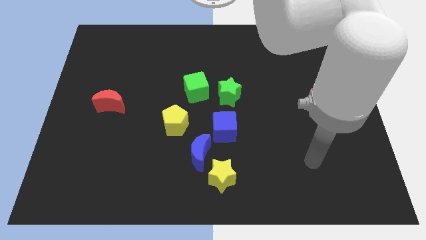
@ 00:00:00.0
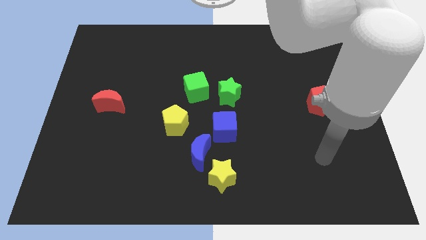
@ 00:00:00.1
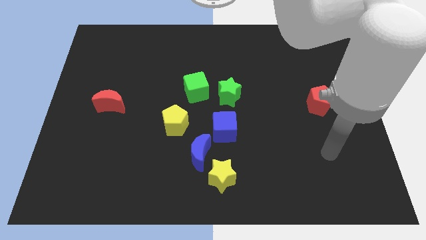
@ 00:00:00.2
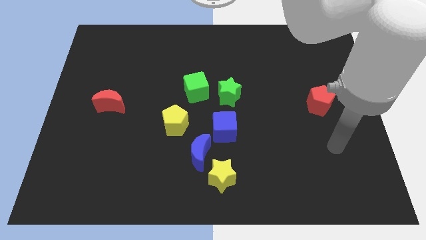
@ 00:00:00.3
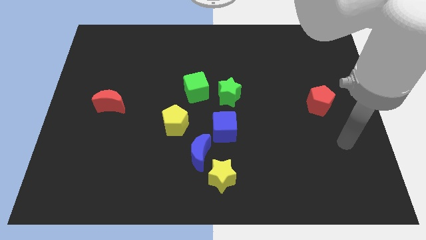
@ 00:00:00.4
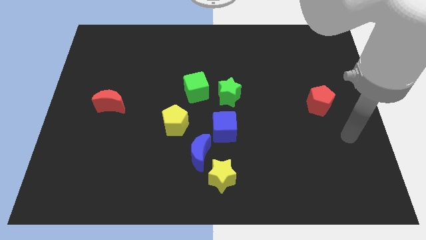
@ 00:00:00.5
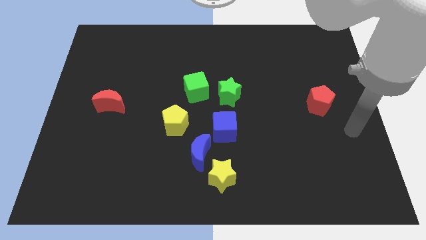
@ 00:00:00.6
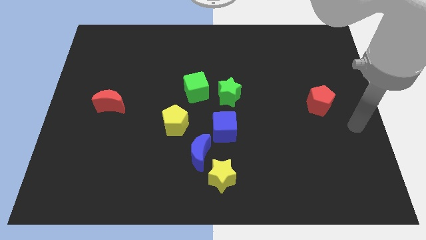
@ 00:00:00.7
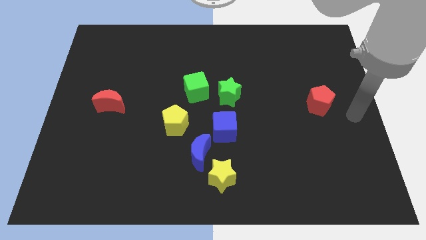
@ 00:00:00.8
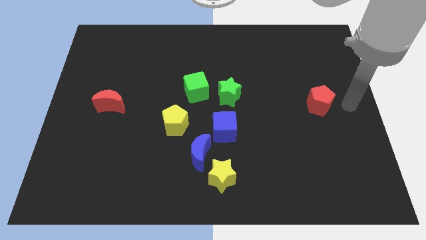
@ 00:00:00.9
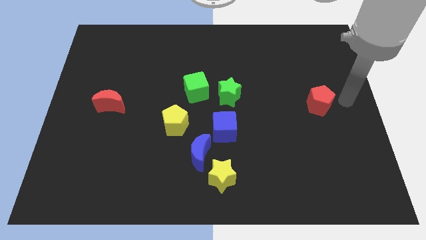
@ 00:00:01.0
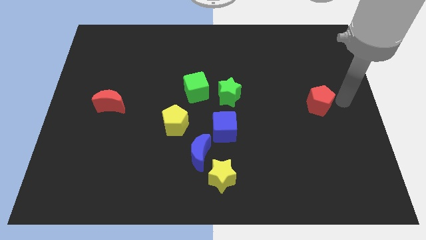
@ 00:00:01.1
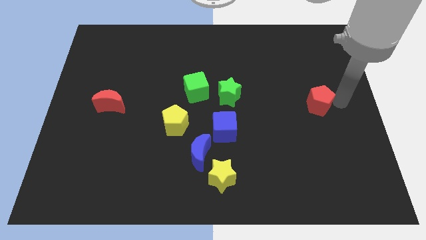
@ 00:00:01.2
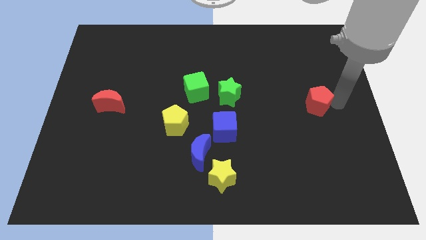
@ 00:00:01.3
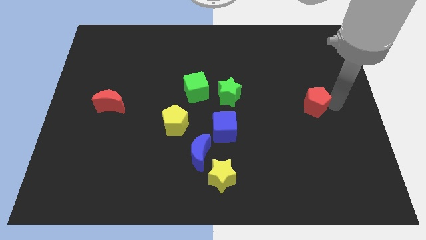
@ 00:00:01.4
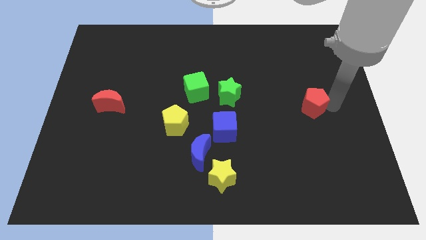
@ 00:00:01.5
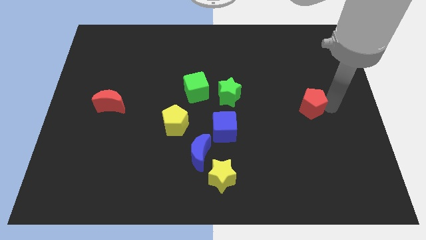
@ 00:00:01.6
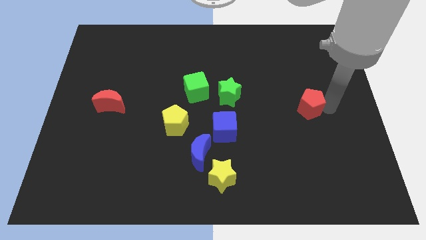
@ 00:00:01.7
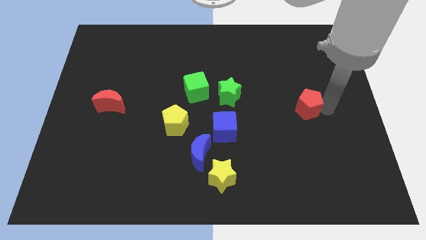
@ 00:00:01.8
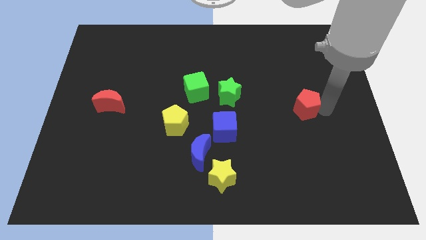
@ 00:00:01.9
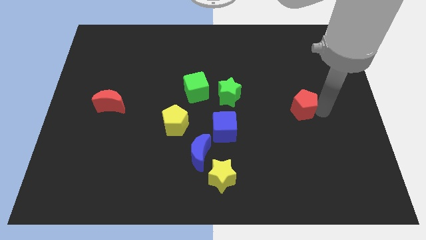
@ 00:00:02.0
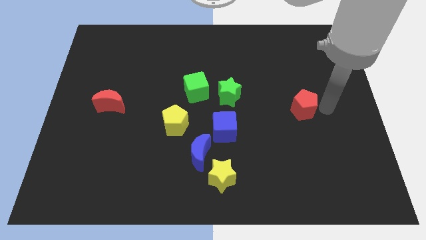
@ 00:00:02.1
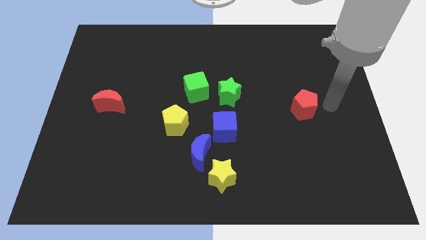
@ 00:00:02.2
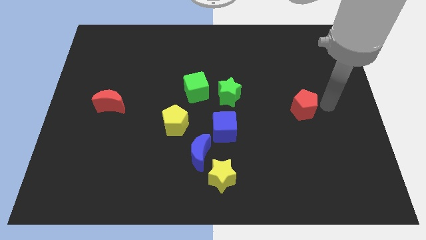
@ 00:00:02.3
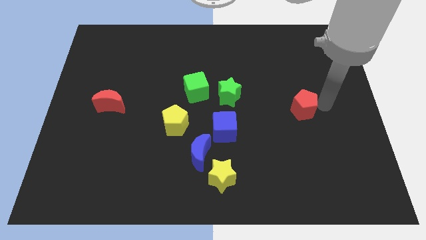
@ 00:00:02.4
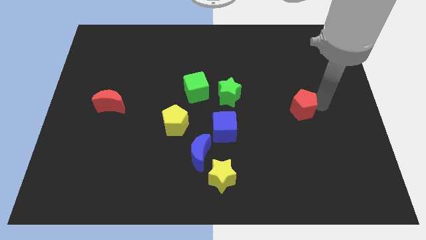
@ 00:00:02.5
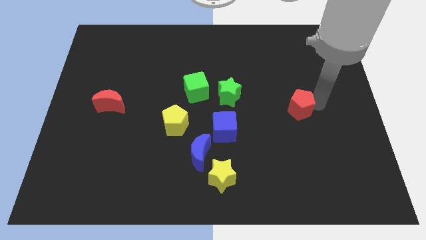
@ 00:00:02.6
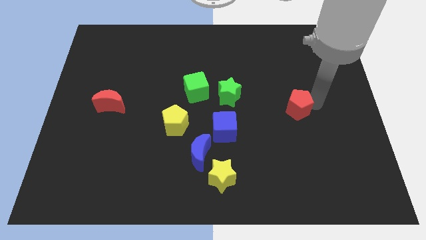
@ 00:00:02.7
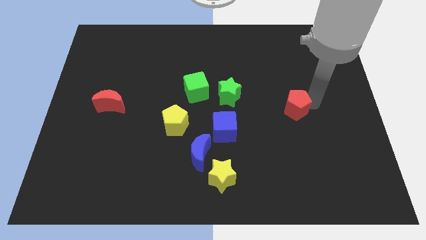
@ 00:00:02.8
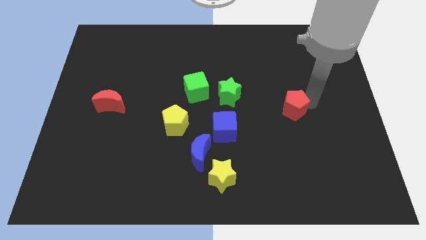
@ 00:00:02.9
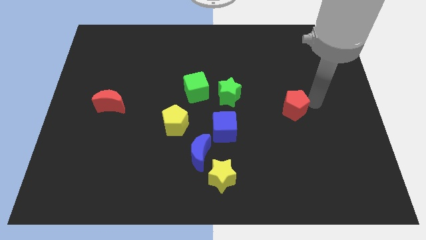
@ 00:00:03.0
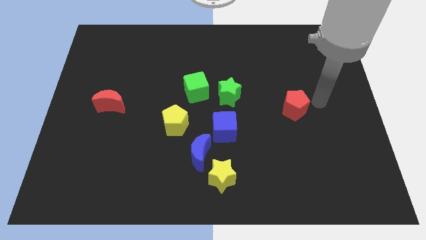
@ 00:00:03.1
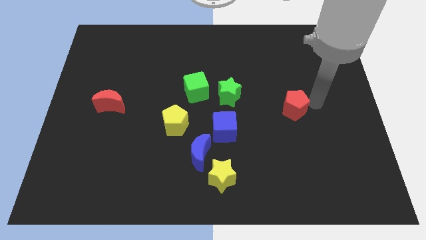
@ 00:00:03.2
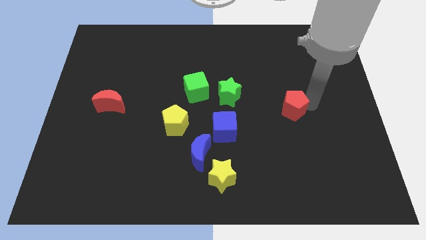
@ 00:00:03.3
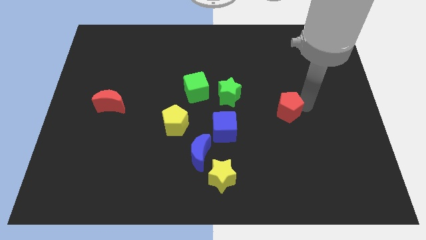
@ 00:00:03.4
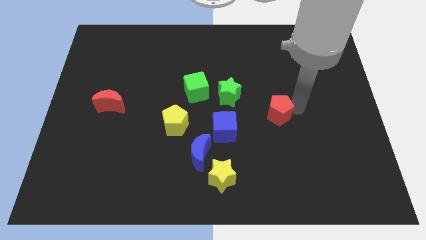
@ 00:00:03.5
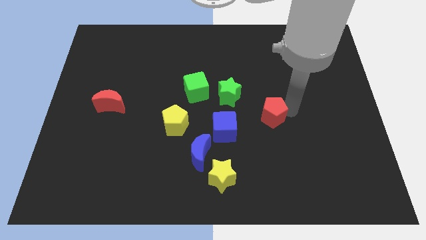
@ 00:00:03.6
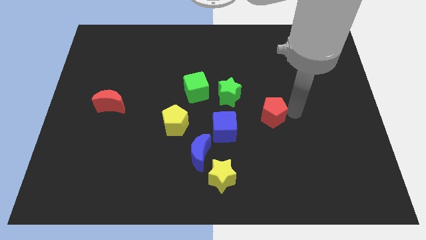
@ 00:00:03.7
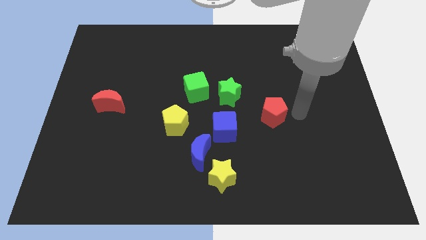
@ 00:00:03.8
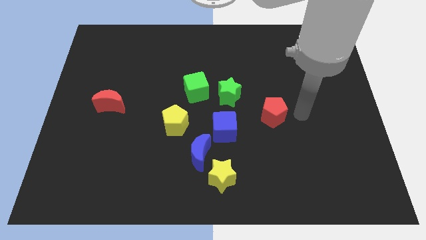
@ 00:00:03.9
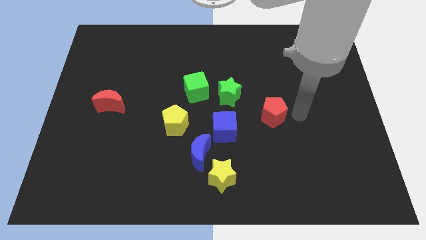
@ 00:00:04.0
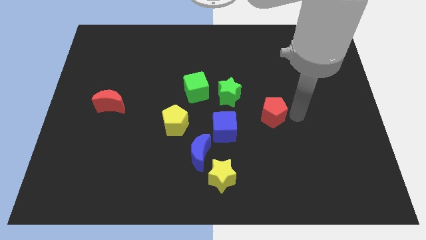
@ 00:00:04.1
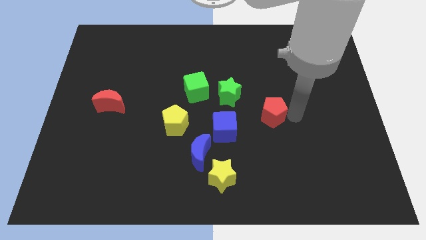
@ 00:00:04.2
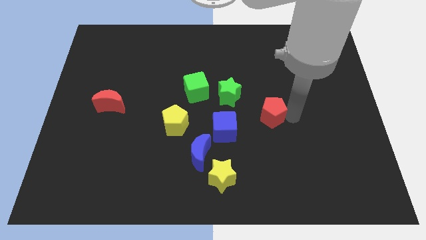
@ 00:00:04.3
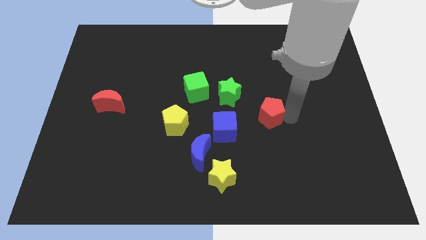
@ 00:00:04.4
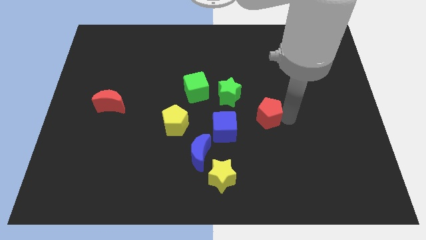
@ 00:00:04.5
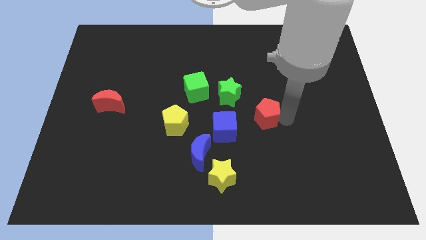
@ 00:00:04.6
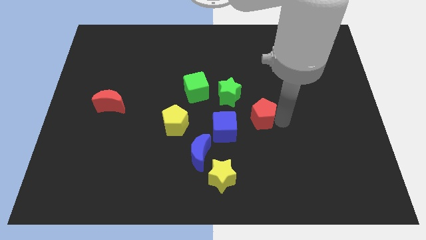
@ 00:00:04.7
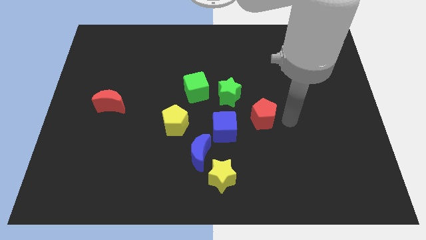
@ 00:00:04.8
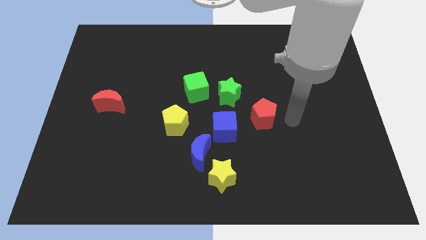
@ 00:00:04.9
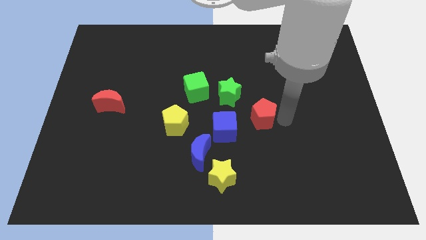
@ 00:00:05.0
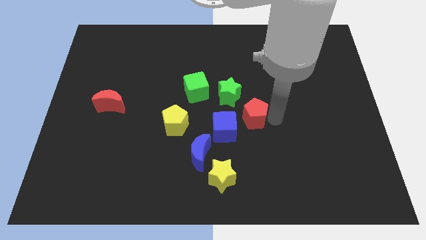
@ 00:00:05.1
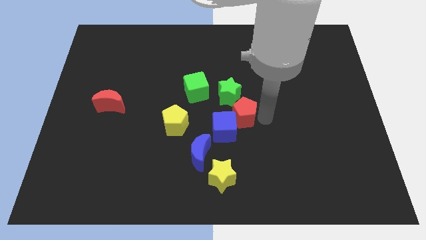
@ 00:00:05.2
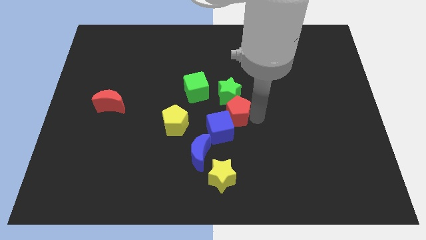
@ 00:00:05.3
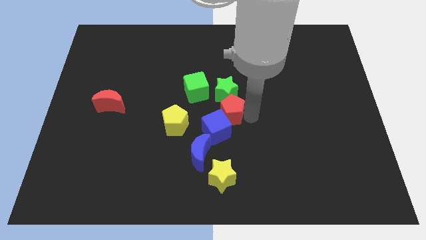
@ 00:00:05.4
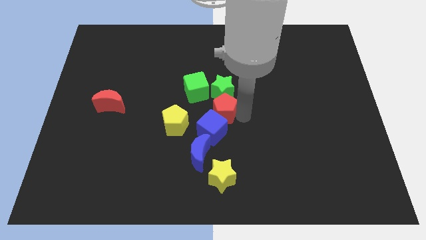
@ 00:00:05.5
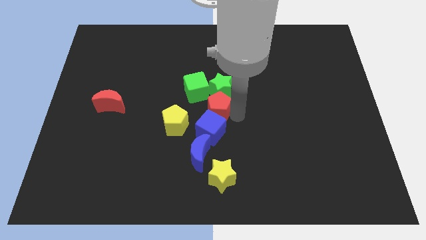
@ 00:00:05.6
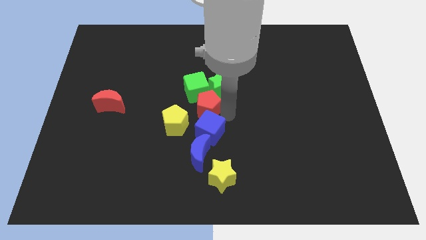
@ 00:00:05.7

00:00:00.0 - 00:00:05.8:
move the red pentagon close to the green cube

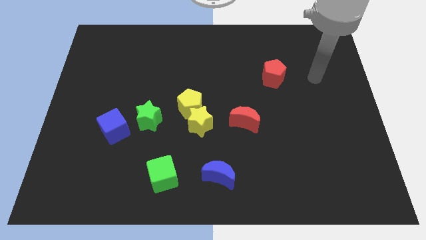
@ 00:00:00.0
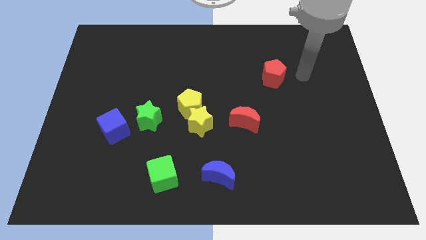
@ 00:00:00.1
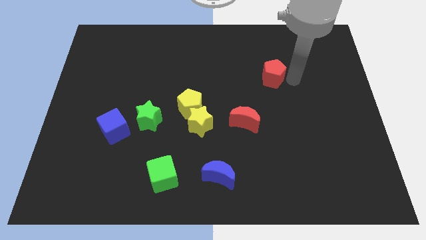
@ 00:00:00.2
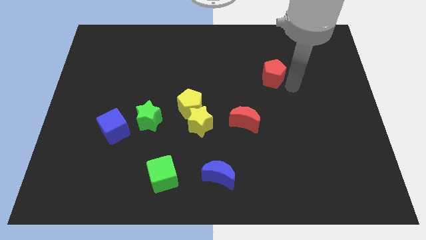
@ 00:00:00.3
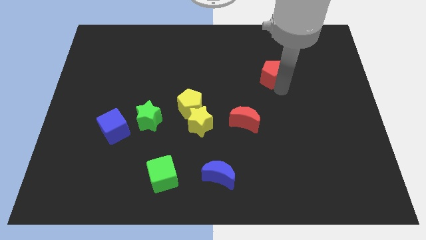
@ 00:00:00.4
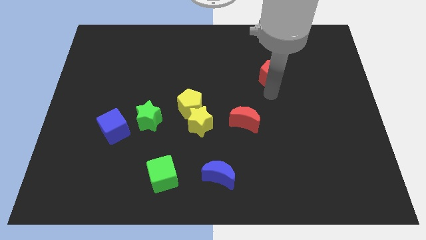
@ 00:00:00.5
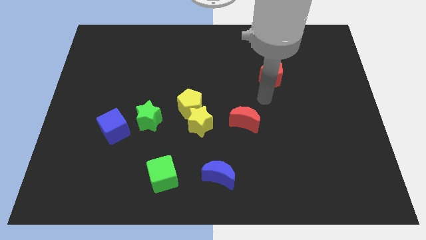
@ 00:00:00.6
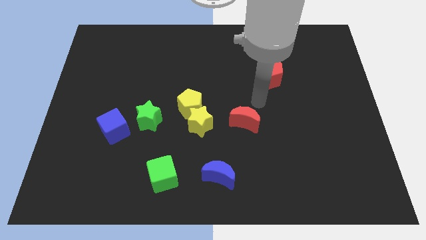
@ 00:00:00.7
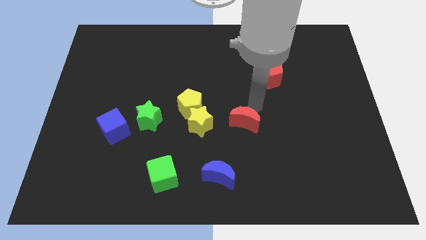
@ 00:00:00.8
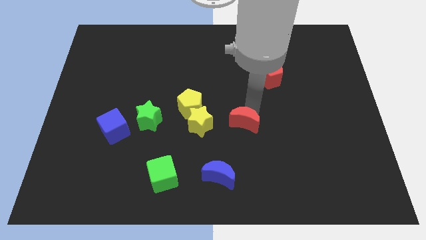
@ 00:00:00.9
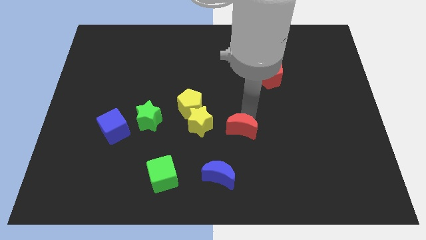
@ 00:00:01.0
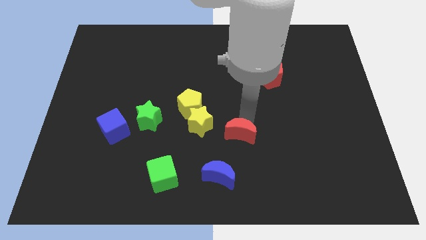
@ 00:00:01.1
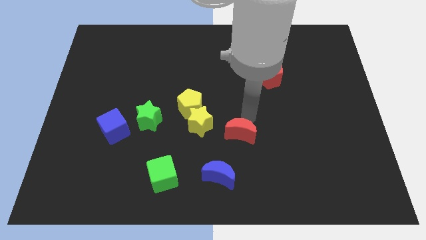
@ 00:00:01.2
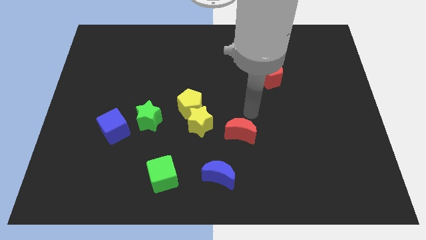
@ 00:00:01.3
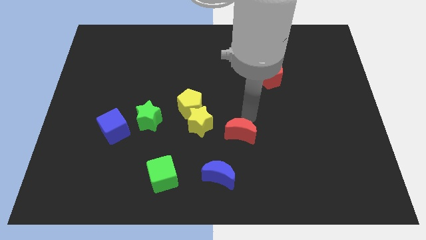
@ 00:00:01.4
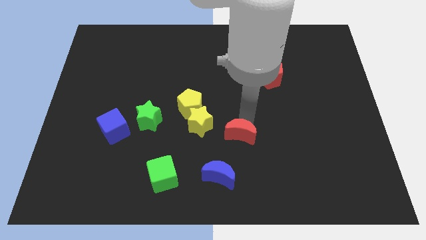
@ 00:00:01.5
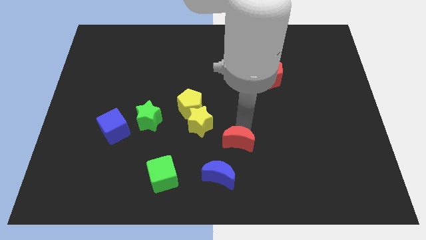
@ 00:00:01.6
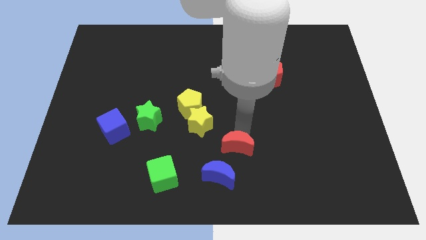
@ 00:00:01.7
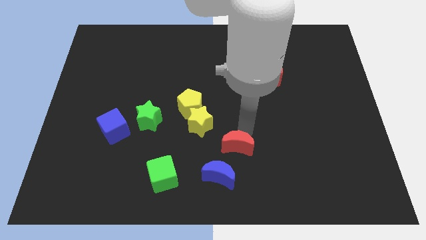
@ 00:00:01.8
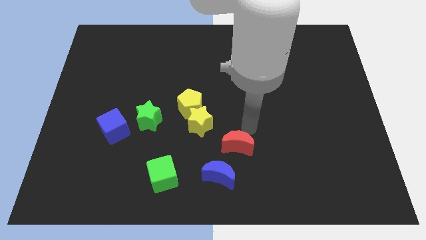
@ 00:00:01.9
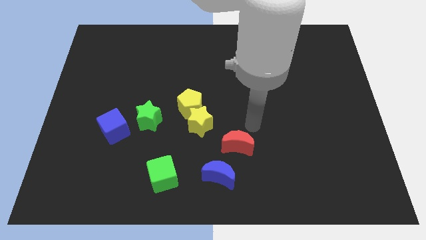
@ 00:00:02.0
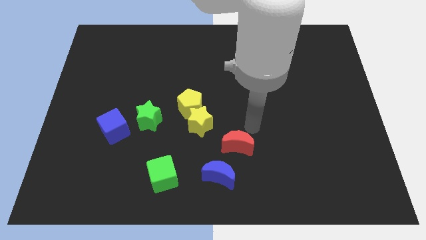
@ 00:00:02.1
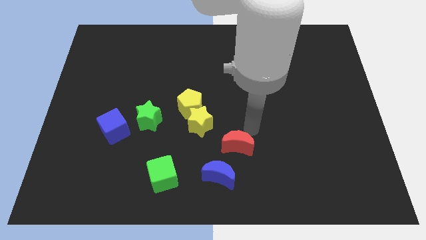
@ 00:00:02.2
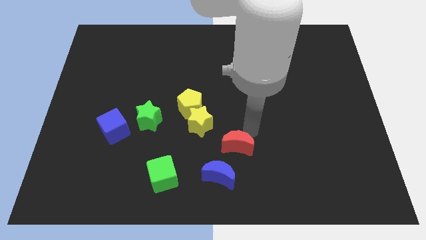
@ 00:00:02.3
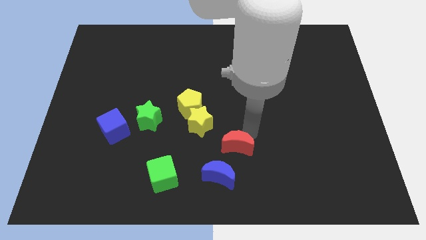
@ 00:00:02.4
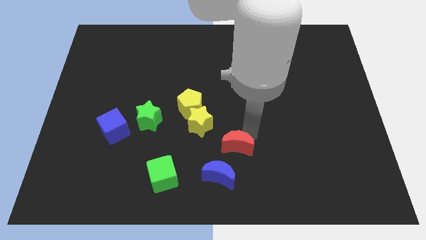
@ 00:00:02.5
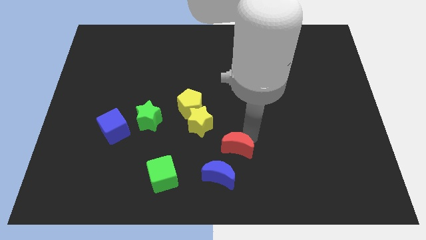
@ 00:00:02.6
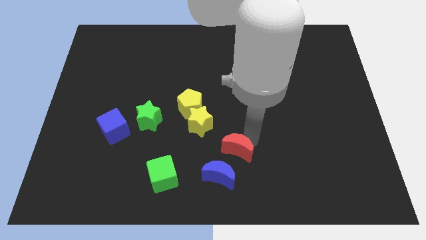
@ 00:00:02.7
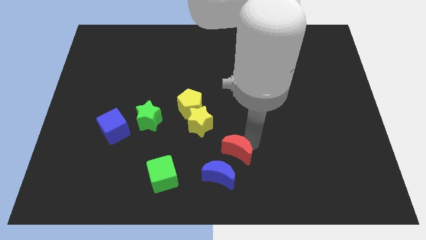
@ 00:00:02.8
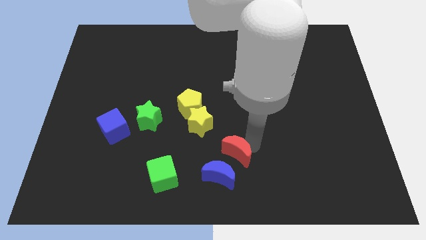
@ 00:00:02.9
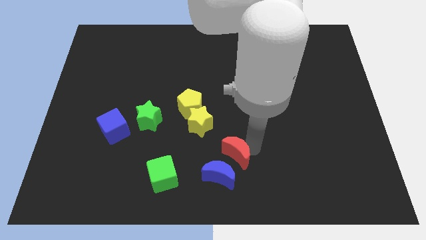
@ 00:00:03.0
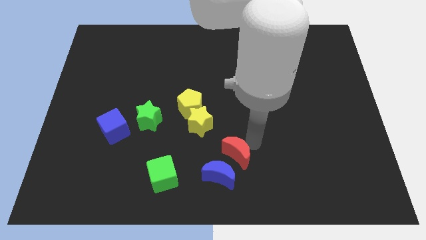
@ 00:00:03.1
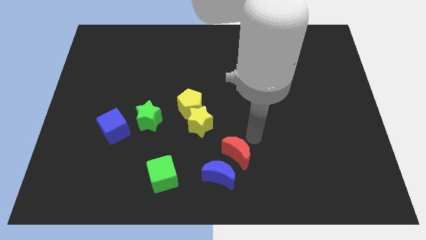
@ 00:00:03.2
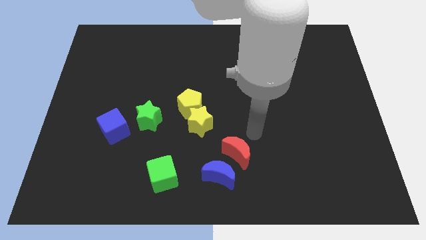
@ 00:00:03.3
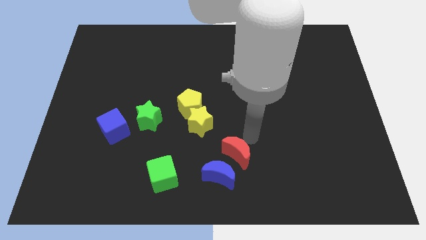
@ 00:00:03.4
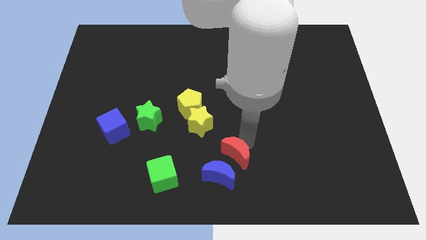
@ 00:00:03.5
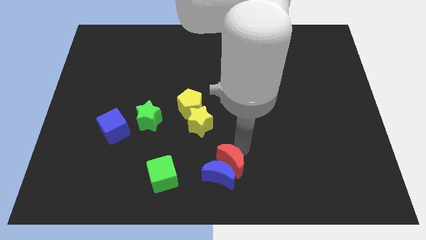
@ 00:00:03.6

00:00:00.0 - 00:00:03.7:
push the red moon to the blue moon
